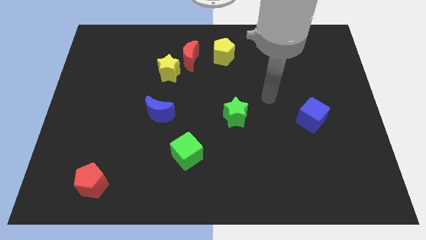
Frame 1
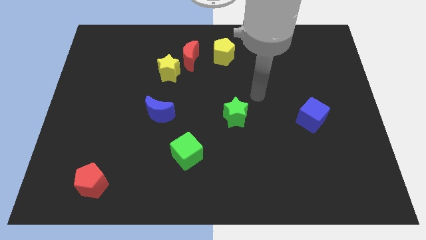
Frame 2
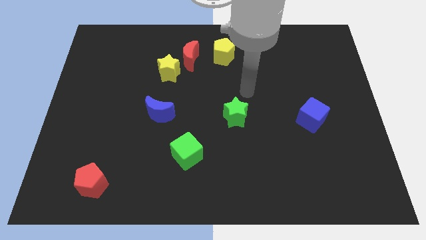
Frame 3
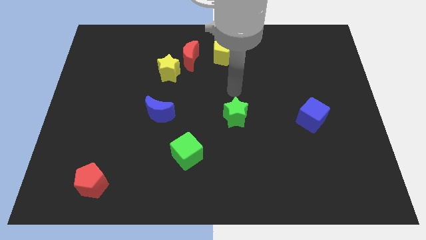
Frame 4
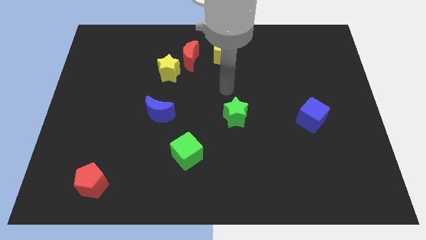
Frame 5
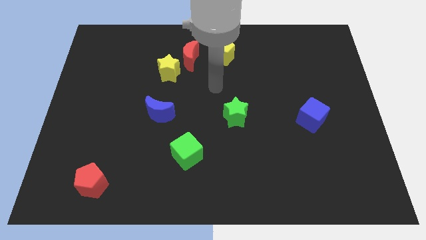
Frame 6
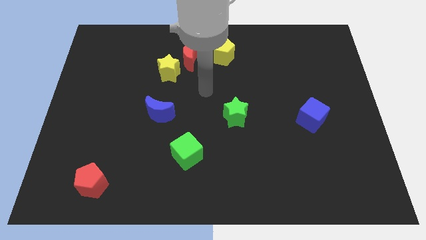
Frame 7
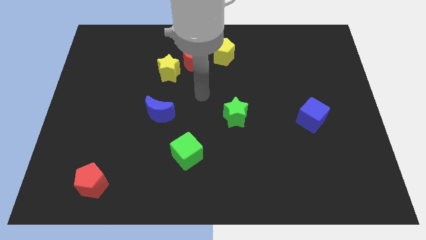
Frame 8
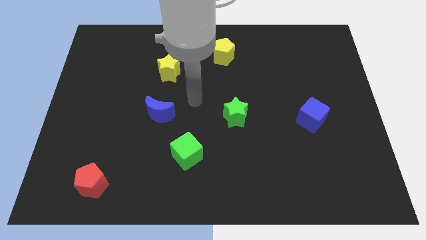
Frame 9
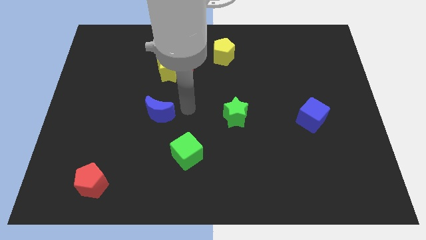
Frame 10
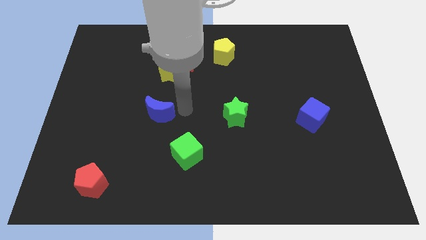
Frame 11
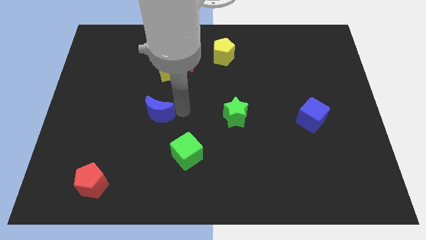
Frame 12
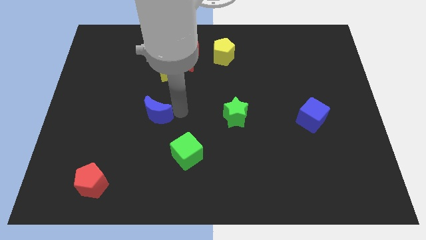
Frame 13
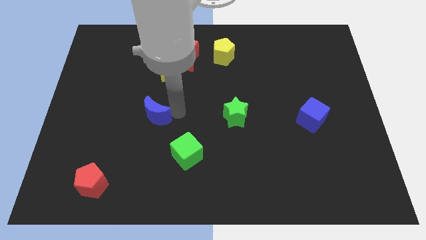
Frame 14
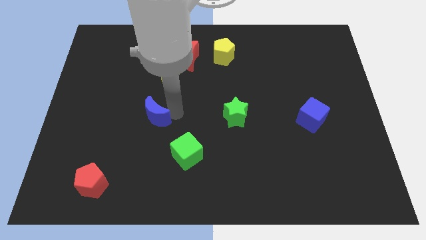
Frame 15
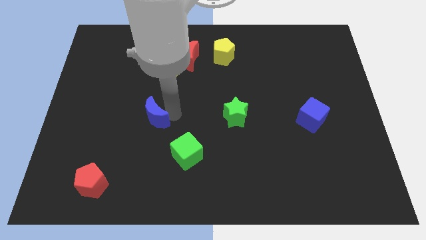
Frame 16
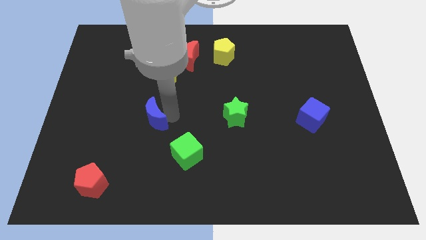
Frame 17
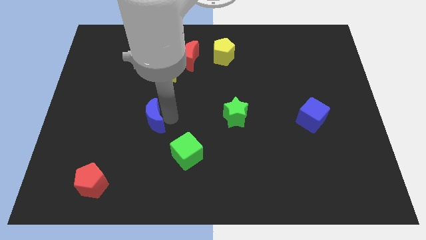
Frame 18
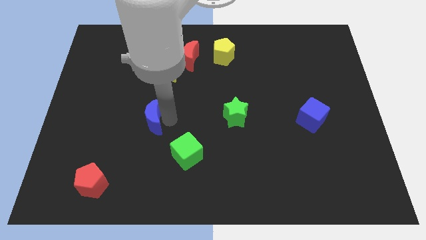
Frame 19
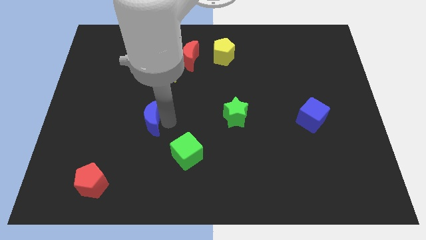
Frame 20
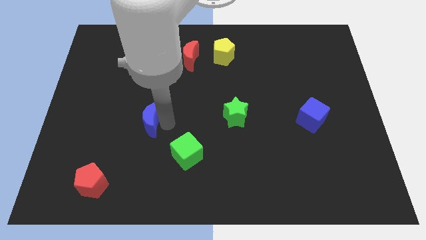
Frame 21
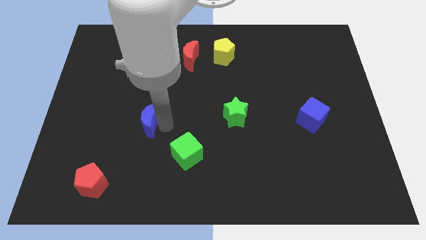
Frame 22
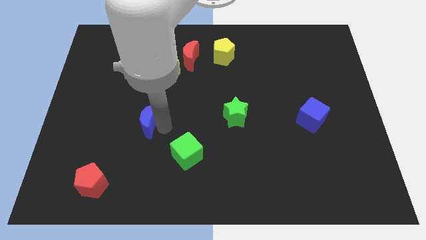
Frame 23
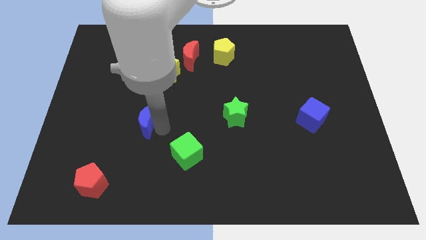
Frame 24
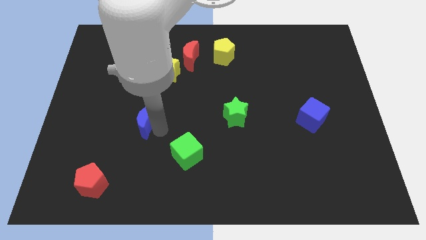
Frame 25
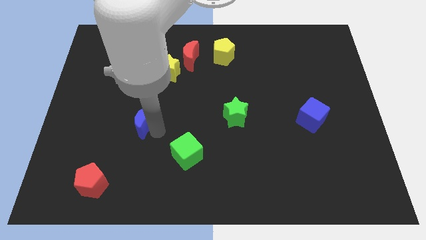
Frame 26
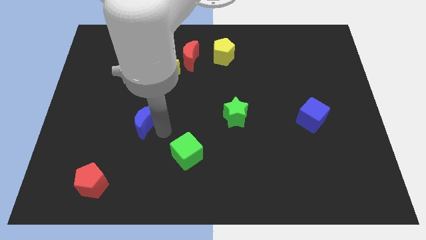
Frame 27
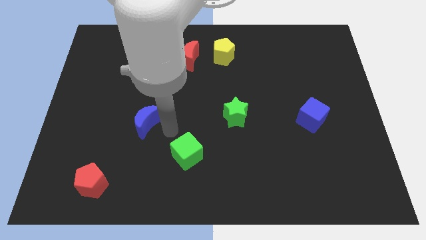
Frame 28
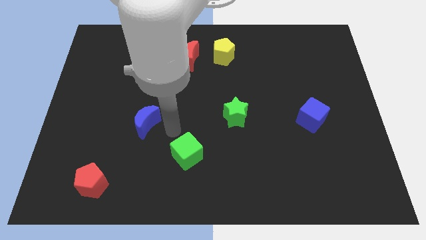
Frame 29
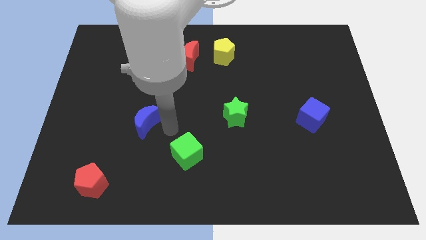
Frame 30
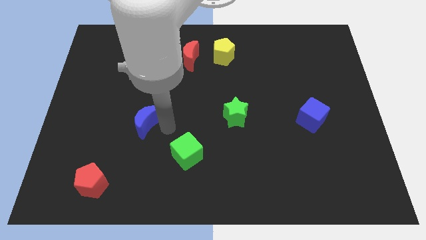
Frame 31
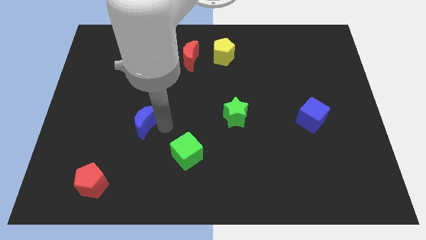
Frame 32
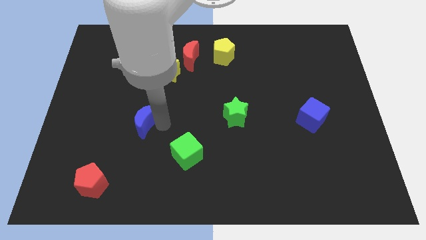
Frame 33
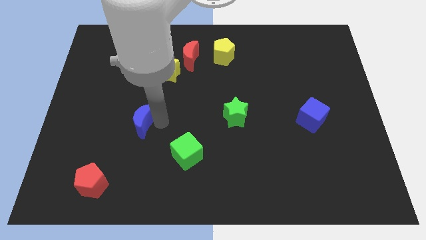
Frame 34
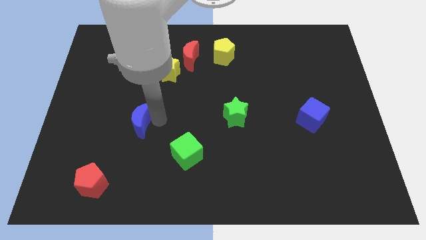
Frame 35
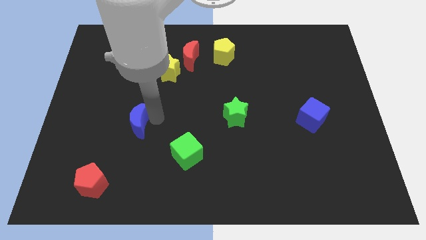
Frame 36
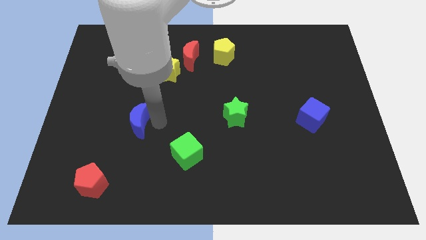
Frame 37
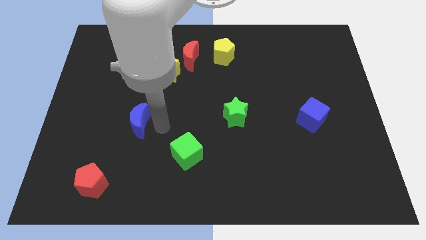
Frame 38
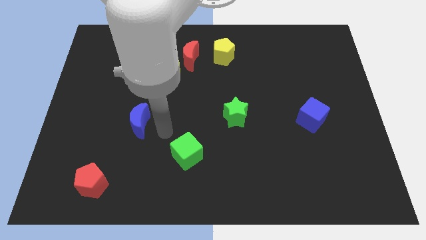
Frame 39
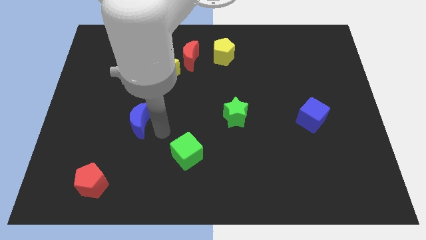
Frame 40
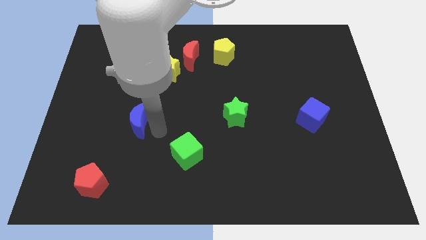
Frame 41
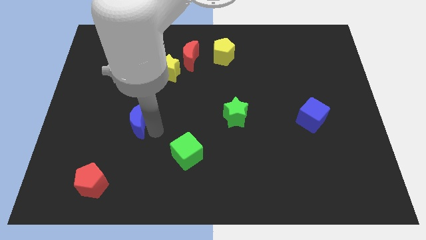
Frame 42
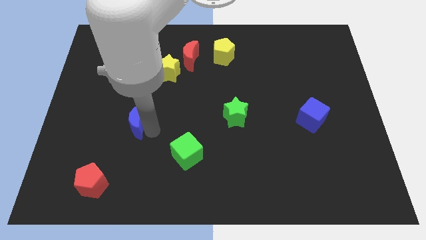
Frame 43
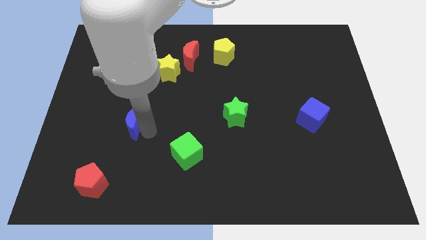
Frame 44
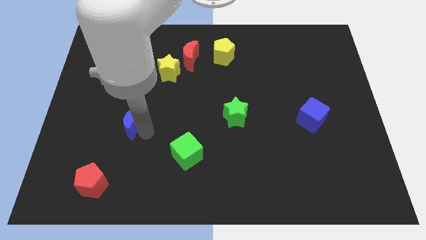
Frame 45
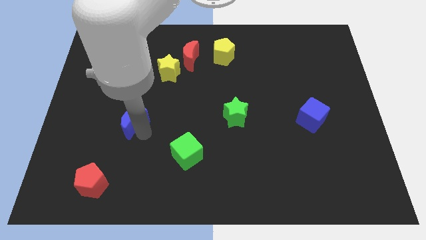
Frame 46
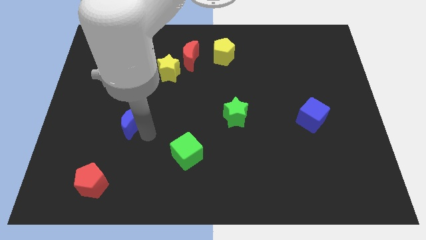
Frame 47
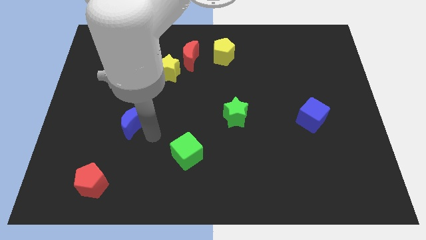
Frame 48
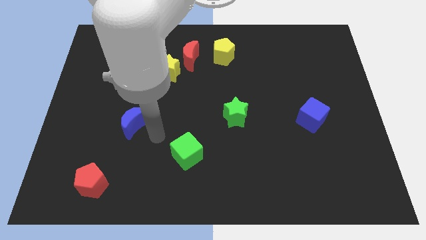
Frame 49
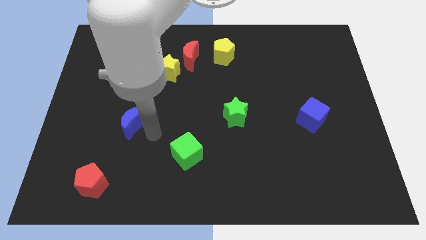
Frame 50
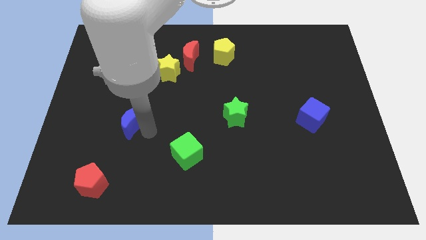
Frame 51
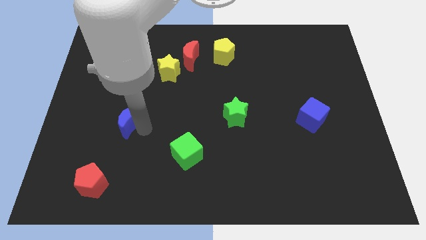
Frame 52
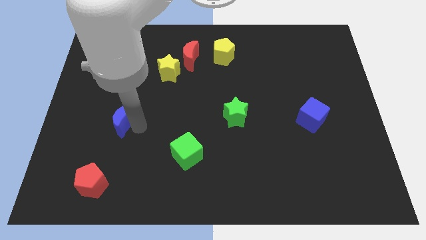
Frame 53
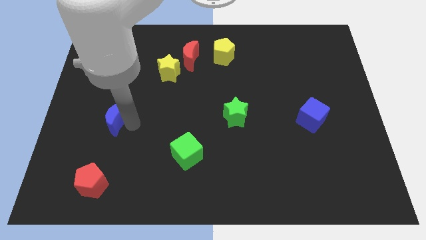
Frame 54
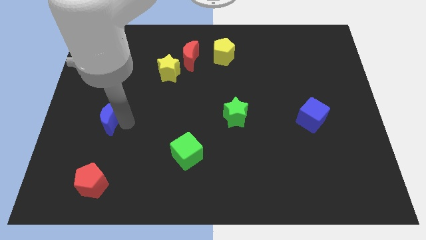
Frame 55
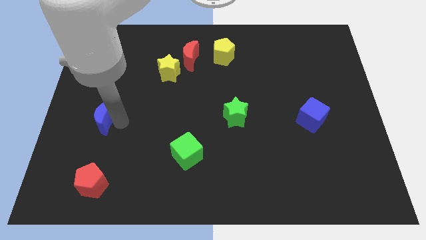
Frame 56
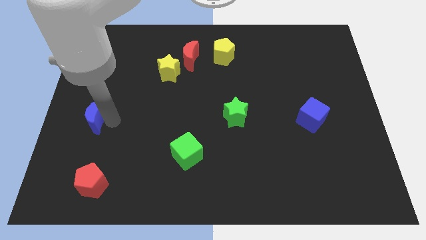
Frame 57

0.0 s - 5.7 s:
push the blue moon to the center left
